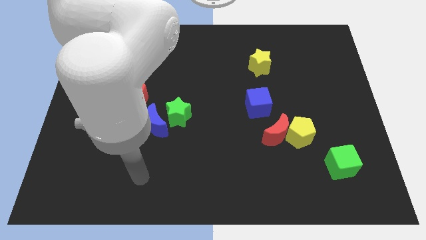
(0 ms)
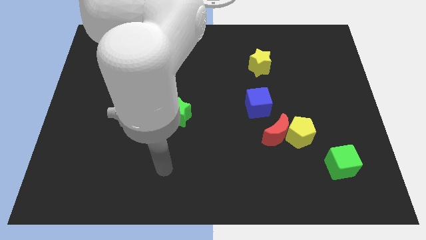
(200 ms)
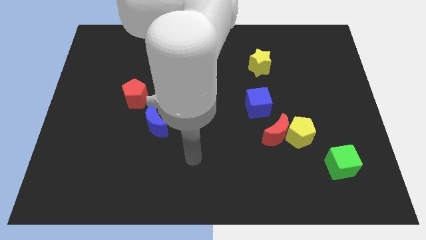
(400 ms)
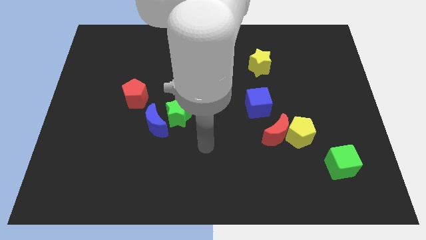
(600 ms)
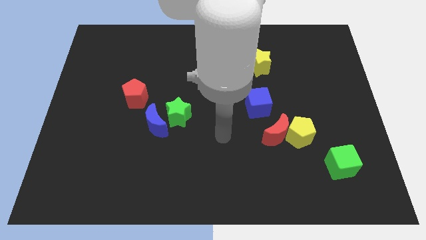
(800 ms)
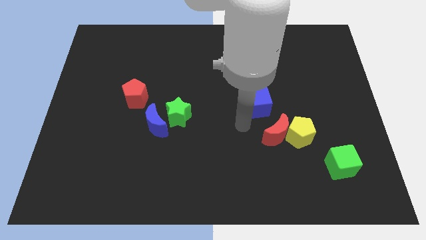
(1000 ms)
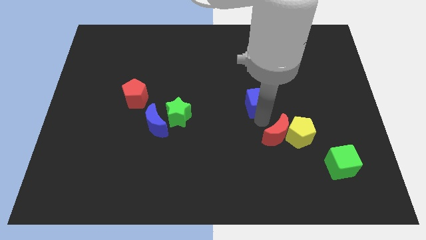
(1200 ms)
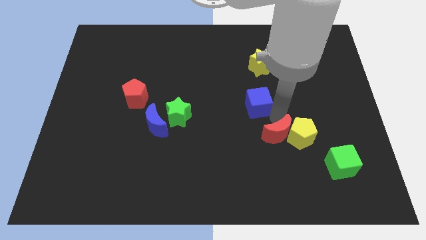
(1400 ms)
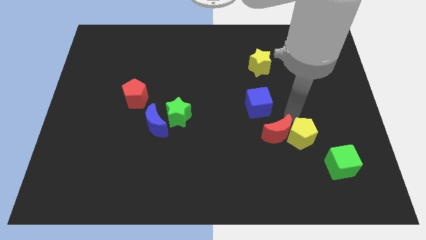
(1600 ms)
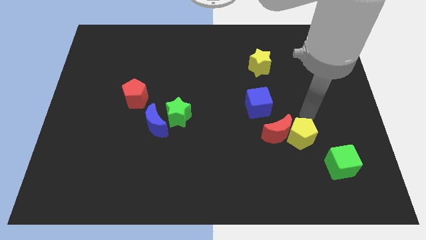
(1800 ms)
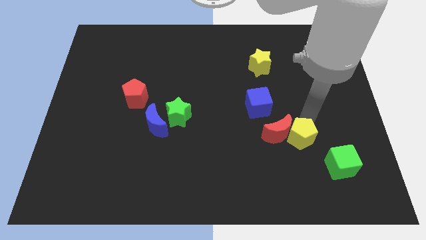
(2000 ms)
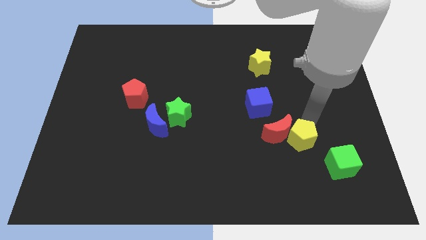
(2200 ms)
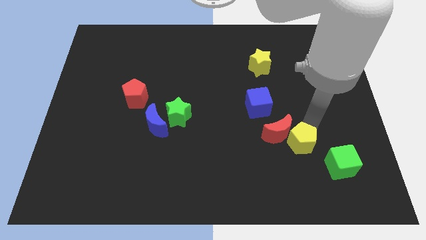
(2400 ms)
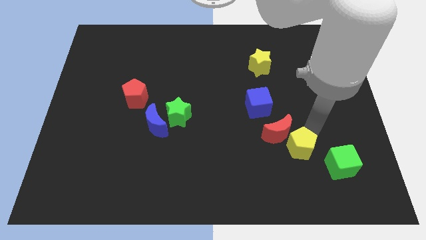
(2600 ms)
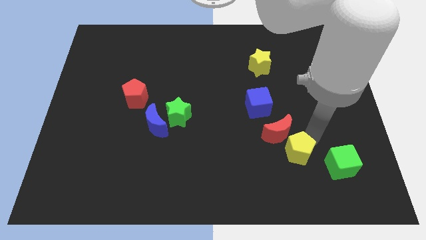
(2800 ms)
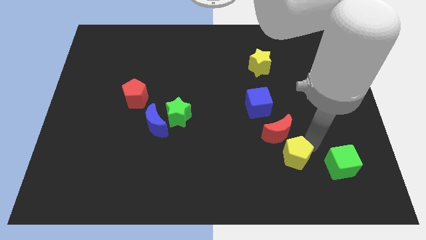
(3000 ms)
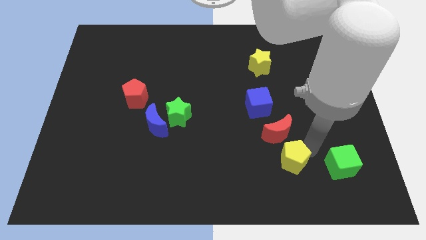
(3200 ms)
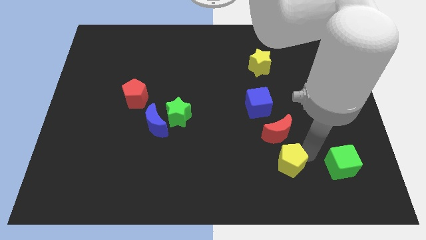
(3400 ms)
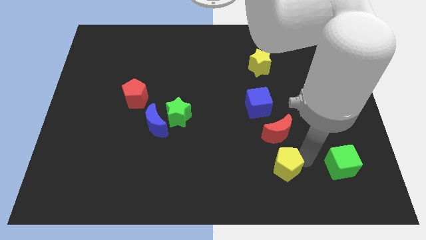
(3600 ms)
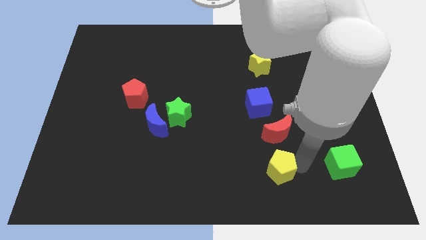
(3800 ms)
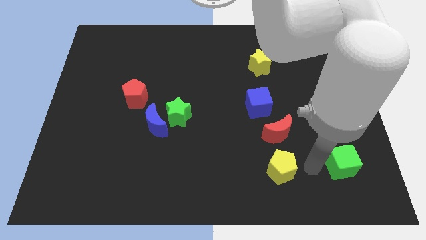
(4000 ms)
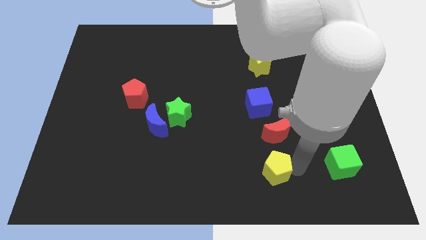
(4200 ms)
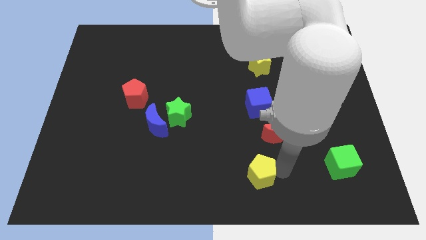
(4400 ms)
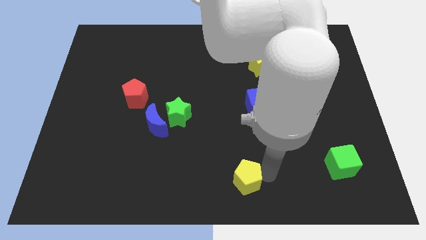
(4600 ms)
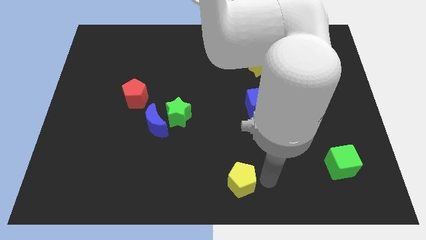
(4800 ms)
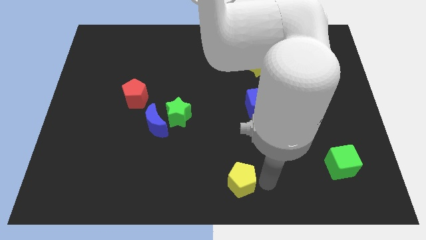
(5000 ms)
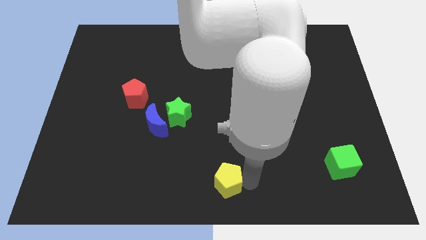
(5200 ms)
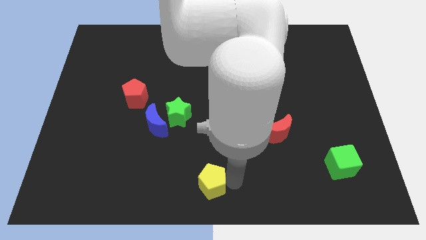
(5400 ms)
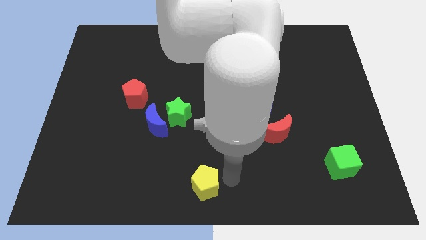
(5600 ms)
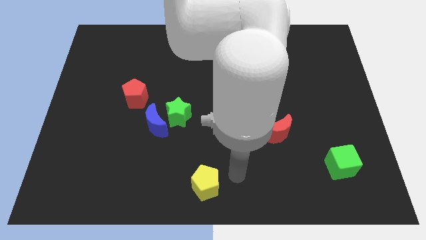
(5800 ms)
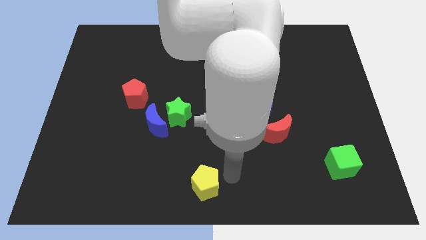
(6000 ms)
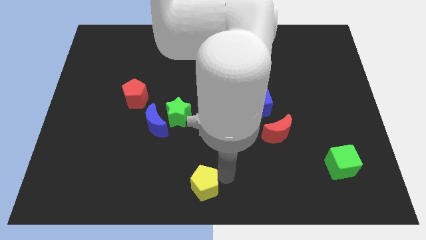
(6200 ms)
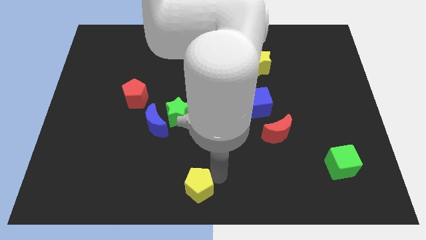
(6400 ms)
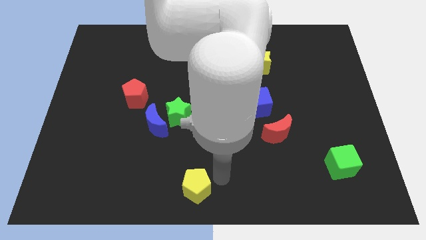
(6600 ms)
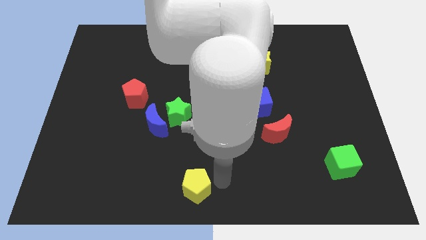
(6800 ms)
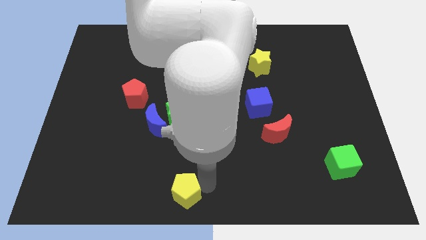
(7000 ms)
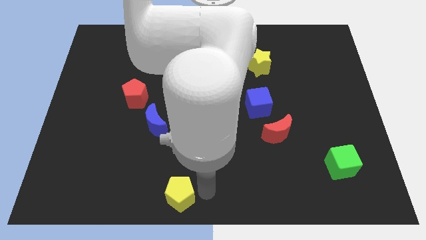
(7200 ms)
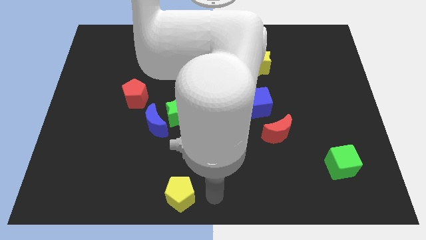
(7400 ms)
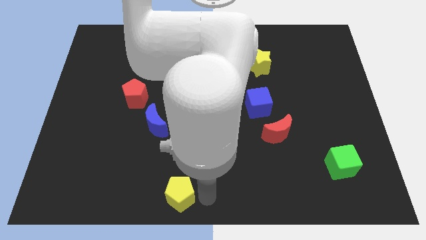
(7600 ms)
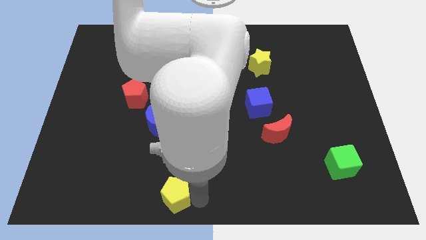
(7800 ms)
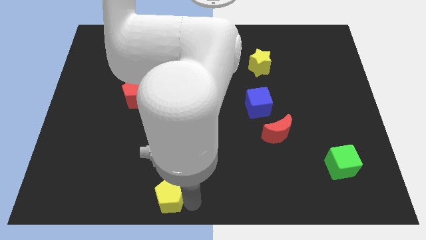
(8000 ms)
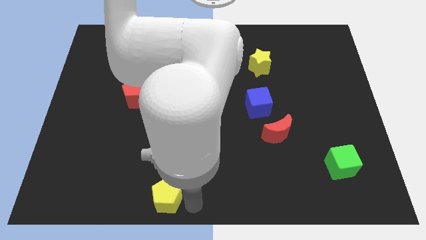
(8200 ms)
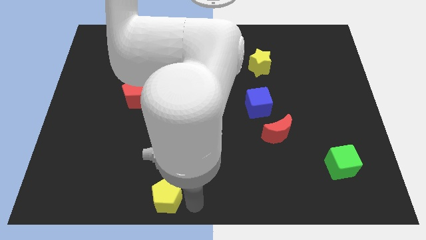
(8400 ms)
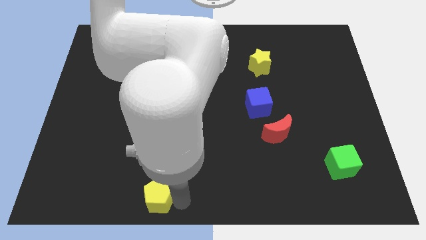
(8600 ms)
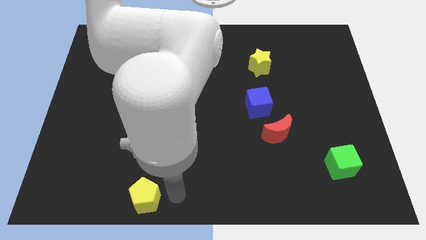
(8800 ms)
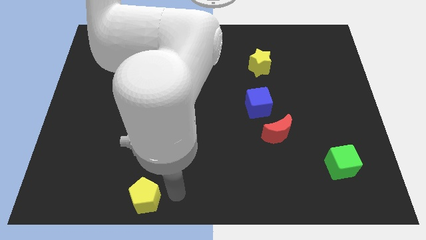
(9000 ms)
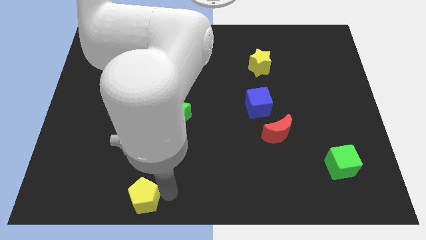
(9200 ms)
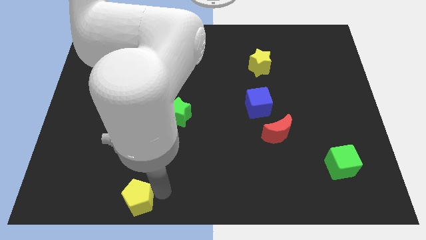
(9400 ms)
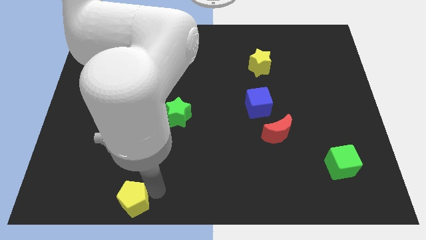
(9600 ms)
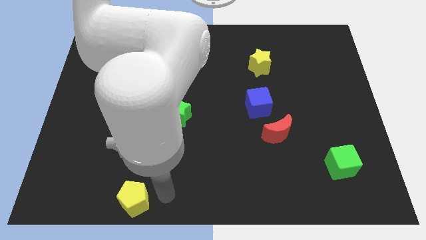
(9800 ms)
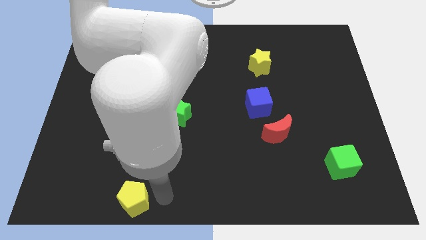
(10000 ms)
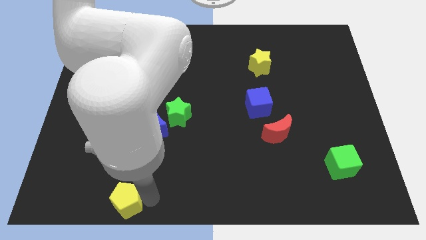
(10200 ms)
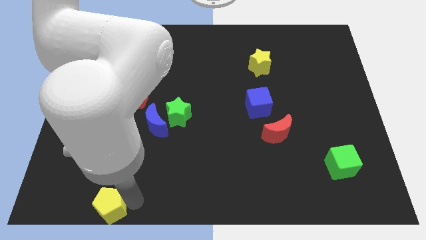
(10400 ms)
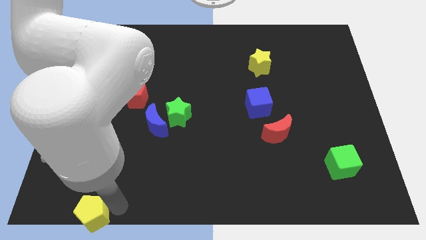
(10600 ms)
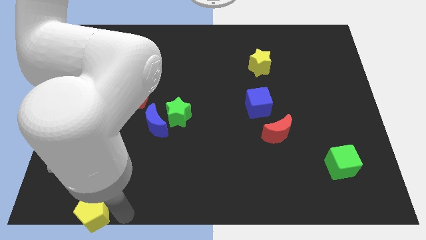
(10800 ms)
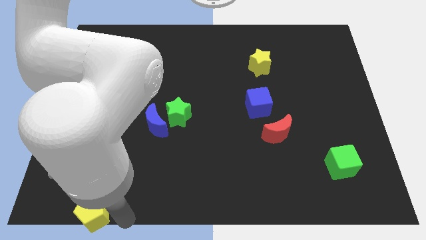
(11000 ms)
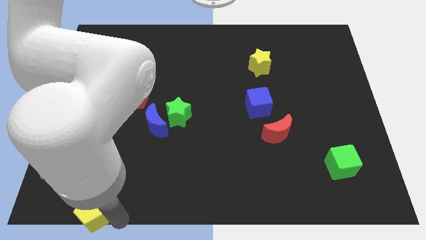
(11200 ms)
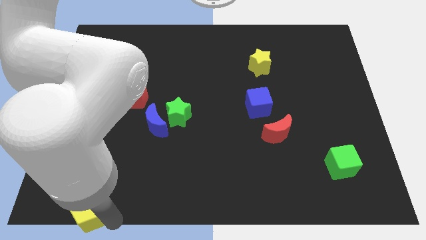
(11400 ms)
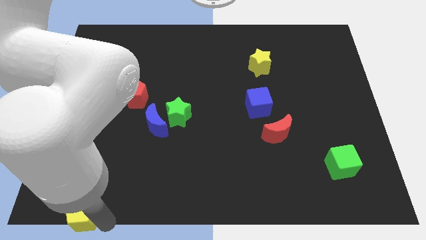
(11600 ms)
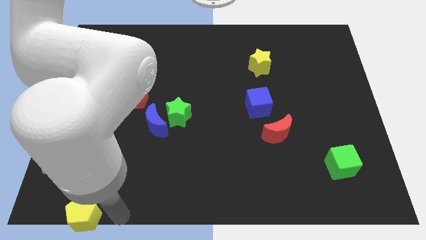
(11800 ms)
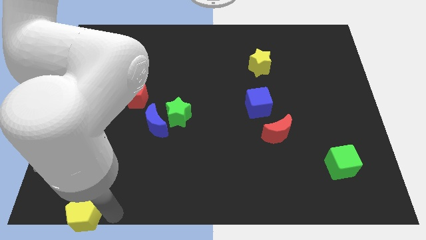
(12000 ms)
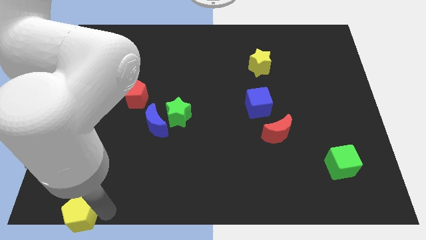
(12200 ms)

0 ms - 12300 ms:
move the yellow pentagon to the lower left corner
